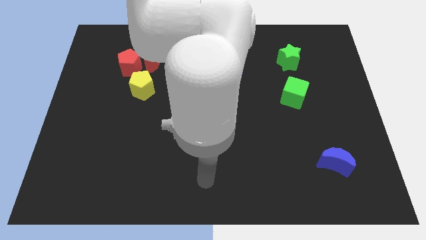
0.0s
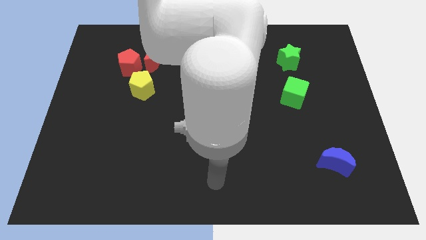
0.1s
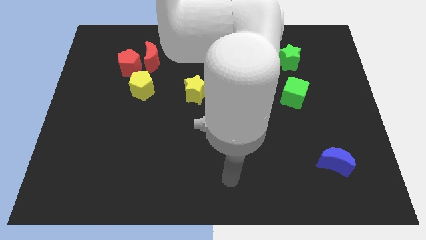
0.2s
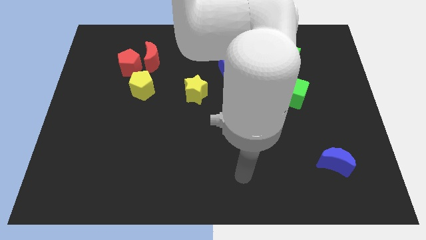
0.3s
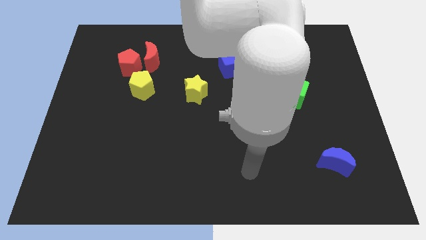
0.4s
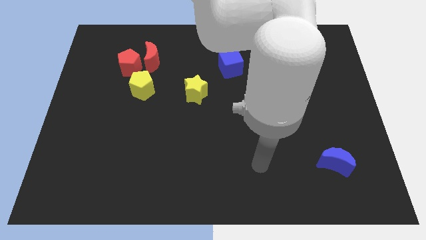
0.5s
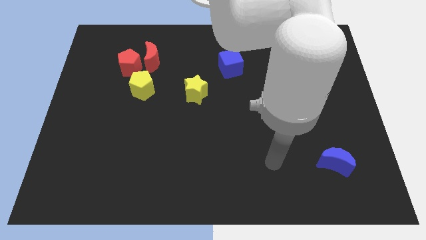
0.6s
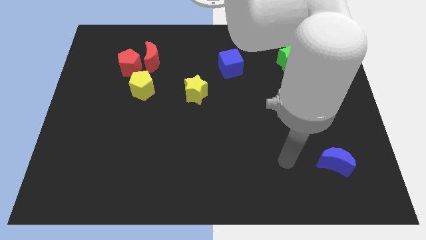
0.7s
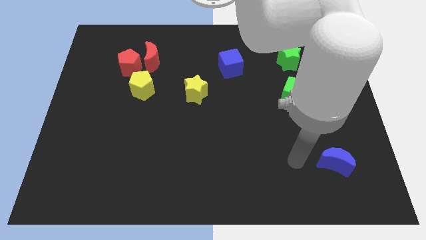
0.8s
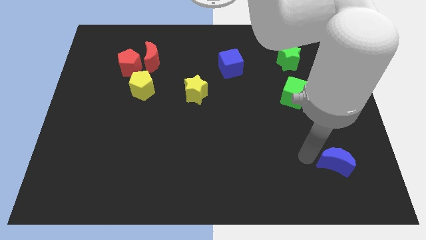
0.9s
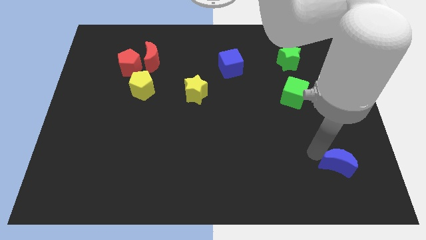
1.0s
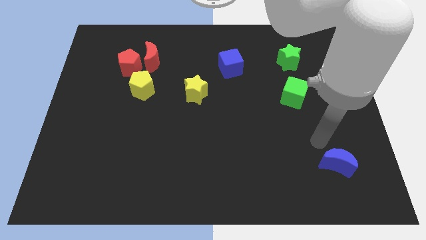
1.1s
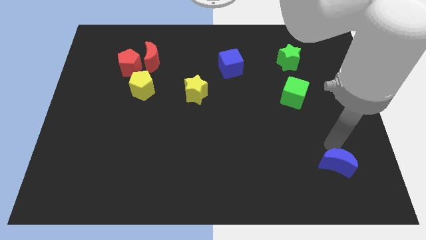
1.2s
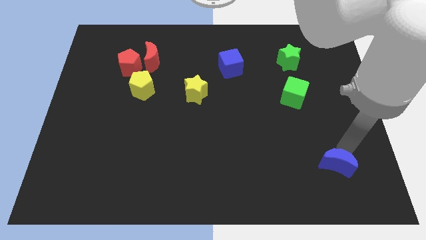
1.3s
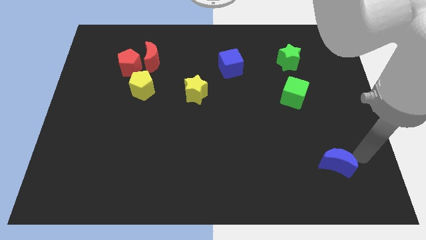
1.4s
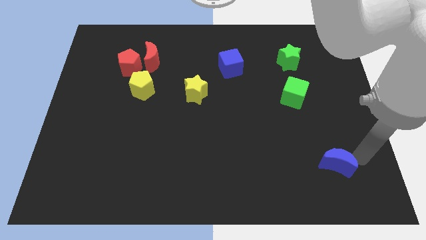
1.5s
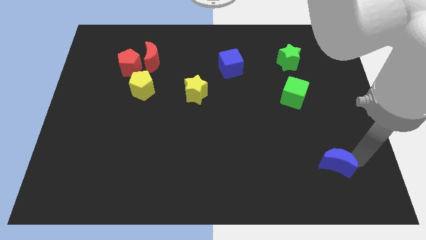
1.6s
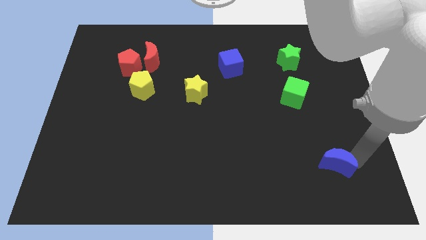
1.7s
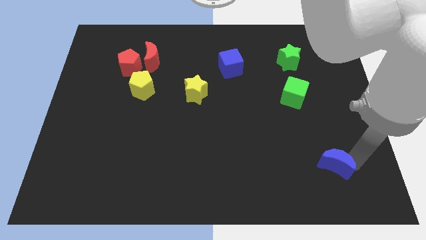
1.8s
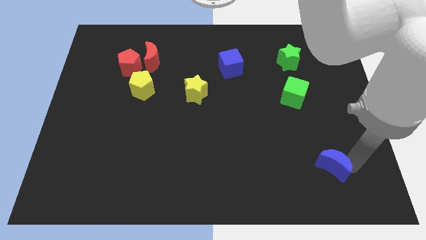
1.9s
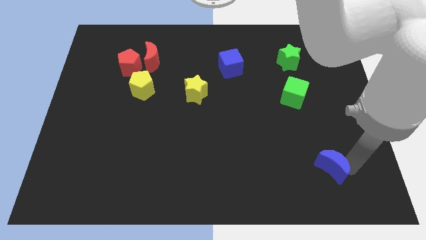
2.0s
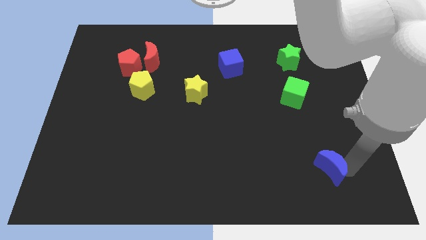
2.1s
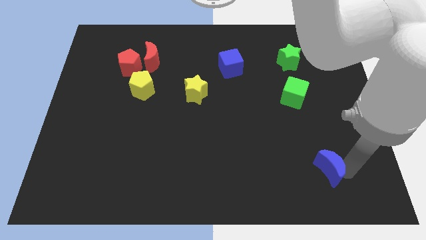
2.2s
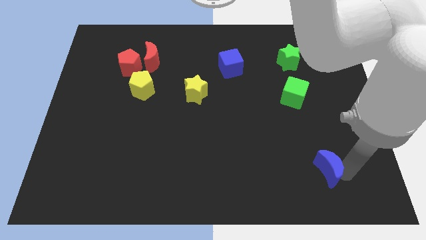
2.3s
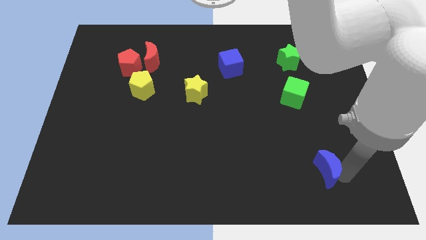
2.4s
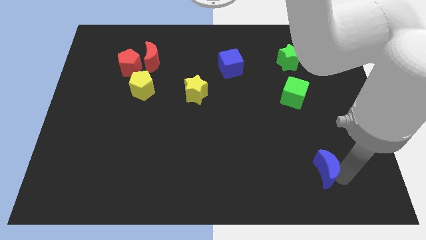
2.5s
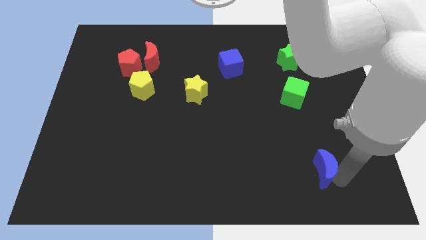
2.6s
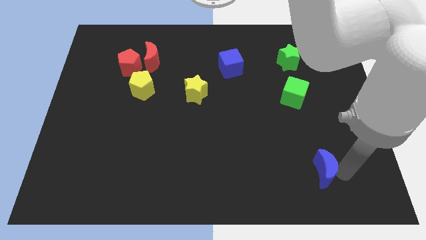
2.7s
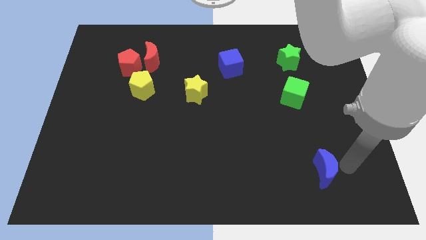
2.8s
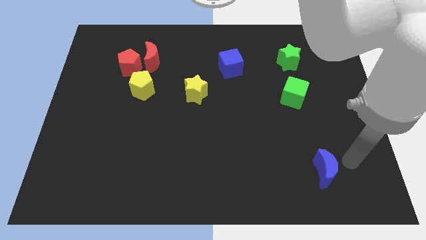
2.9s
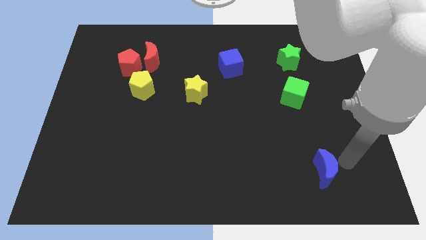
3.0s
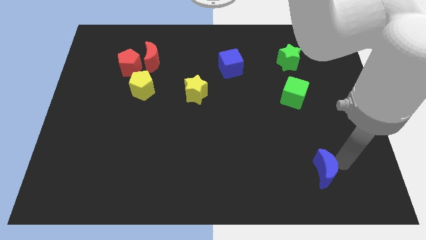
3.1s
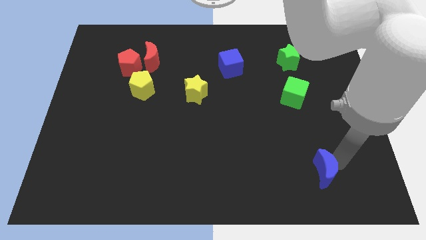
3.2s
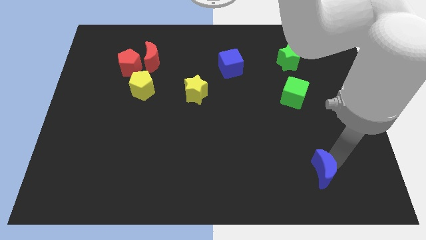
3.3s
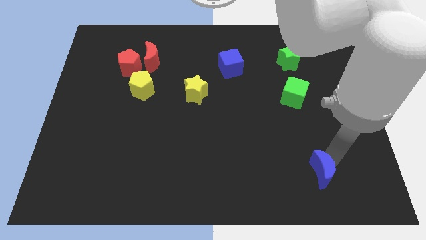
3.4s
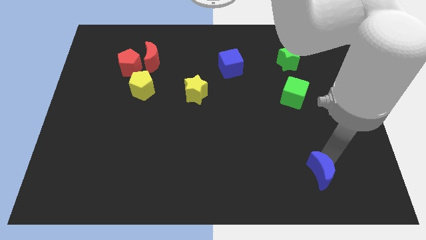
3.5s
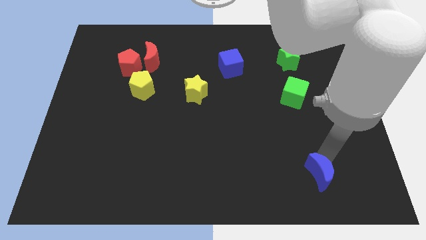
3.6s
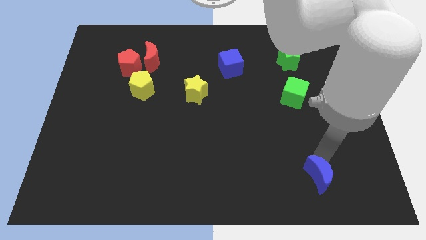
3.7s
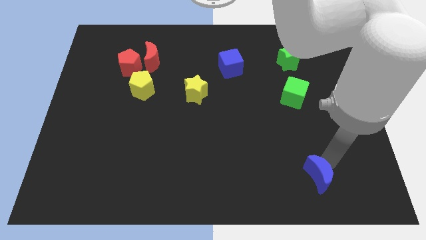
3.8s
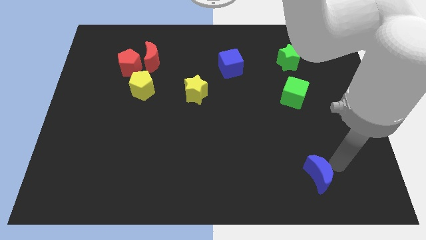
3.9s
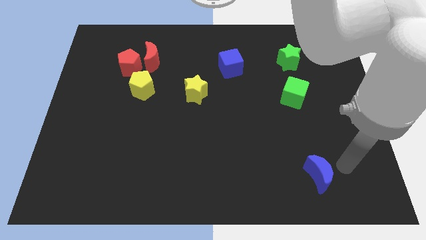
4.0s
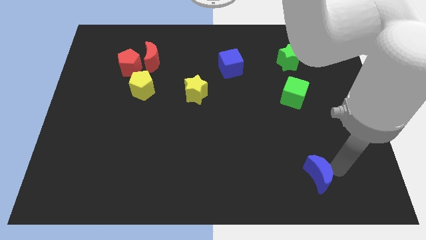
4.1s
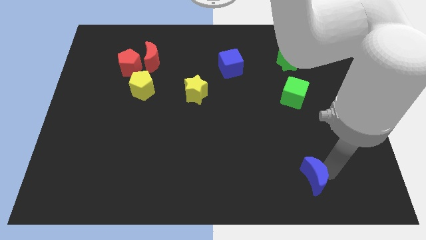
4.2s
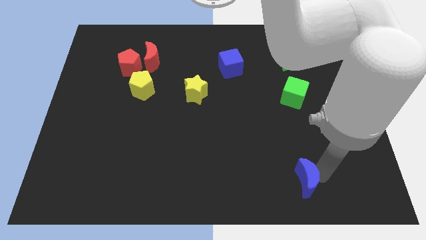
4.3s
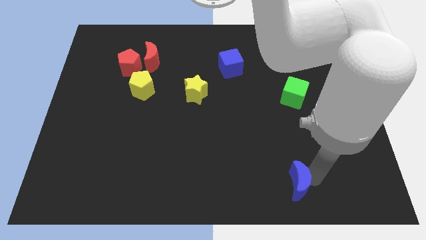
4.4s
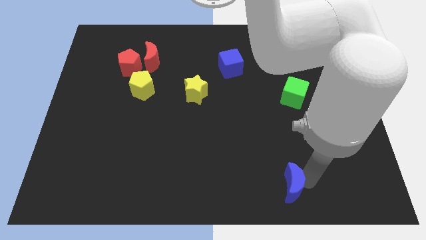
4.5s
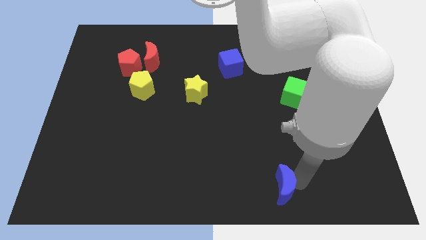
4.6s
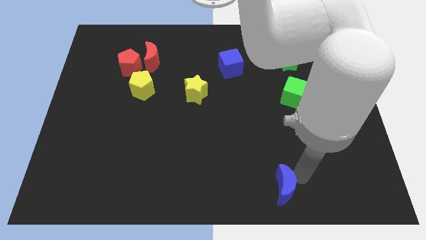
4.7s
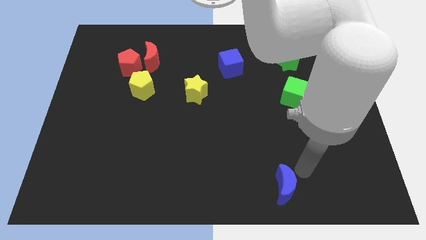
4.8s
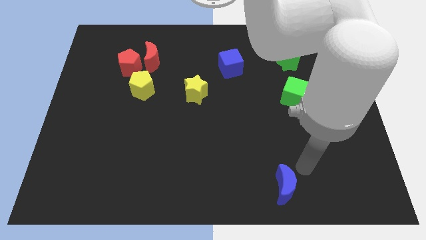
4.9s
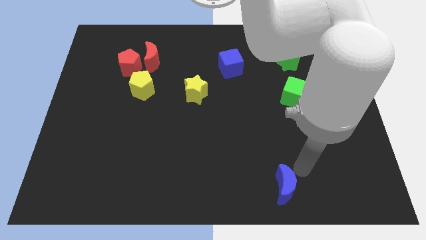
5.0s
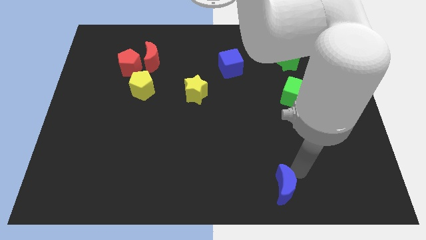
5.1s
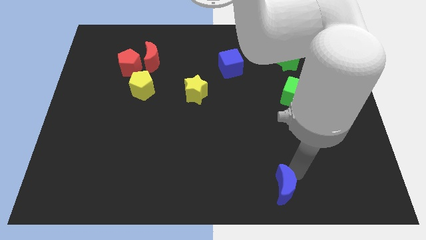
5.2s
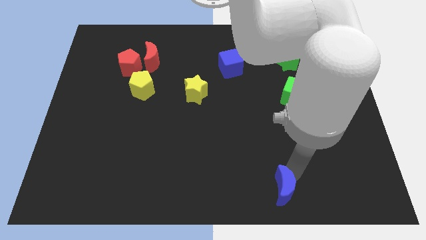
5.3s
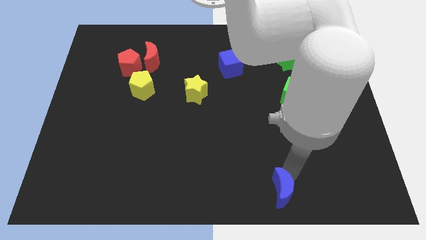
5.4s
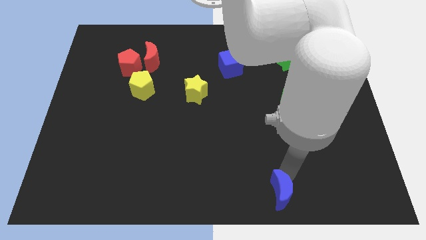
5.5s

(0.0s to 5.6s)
put the blue moon to the bottom side

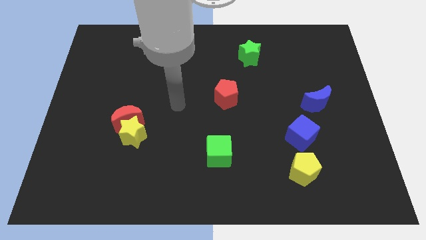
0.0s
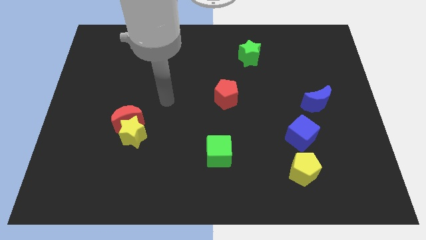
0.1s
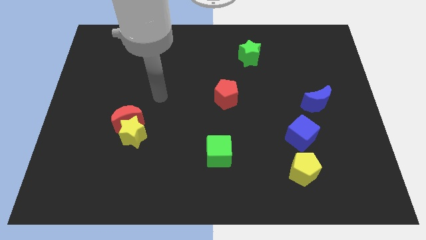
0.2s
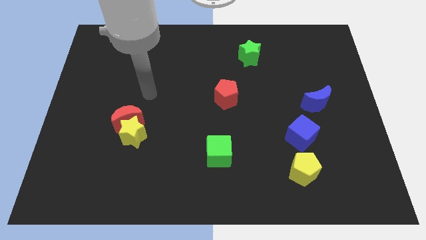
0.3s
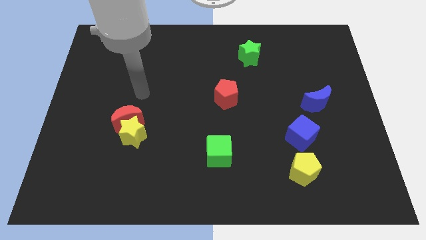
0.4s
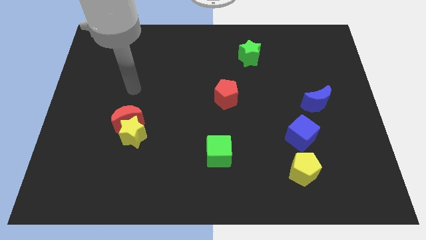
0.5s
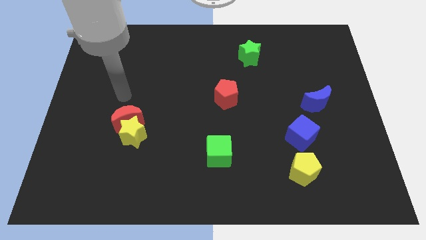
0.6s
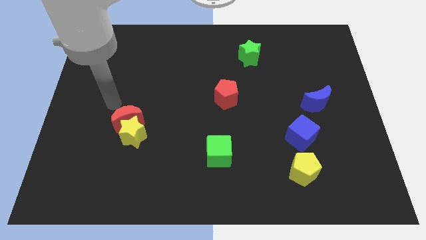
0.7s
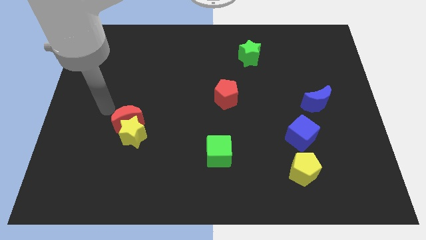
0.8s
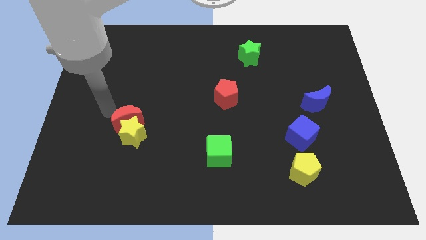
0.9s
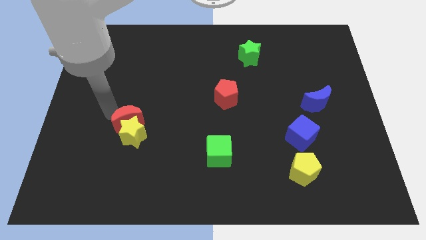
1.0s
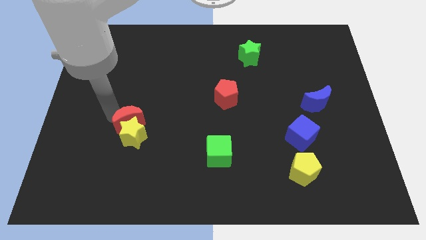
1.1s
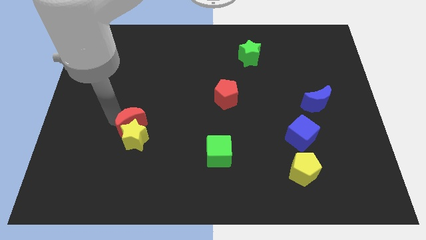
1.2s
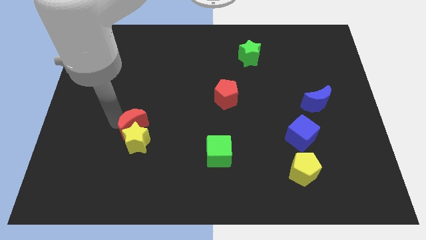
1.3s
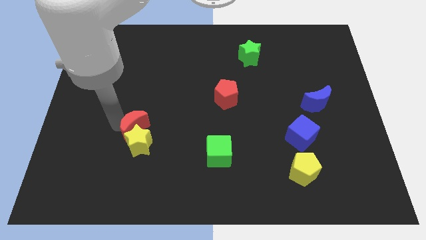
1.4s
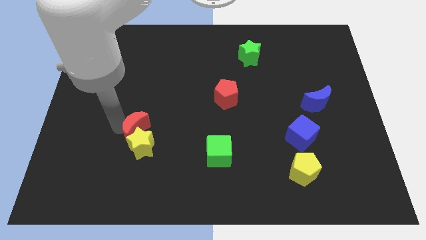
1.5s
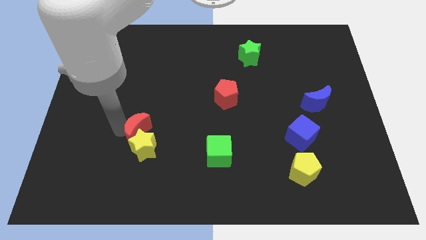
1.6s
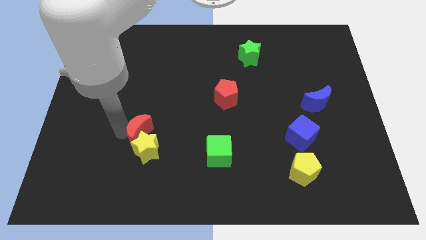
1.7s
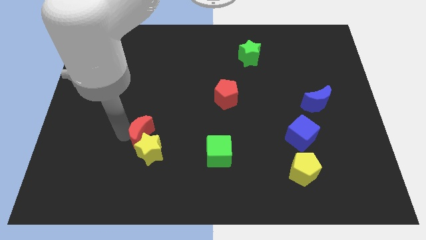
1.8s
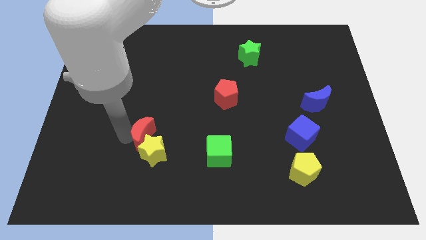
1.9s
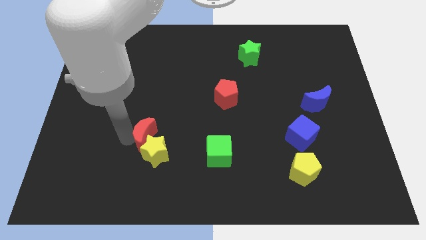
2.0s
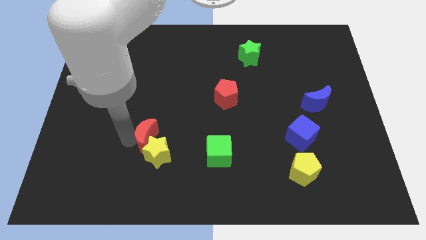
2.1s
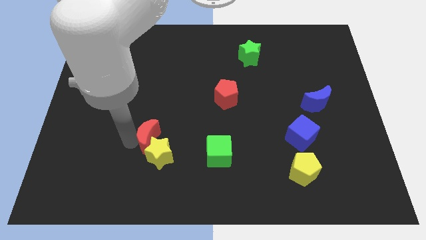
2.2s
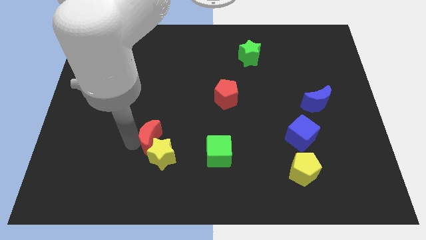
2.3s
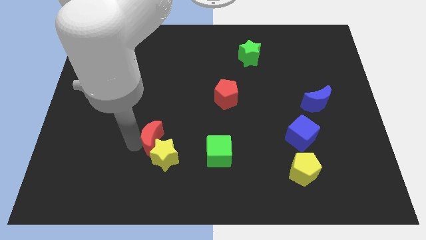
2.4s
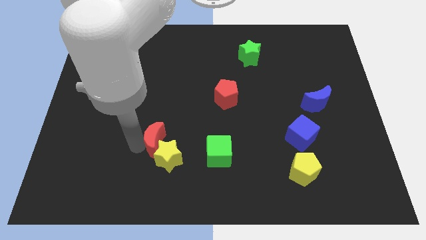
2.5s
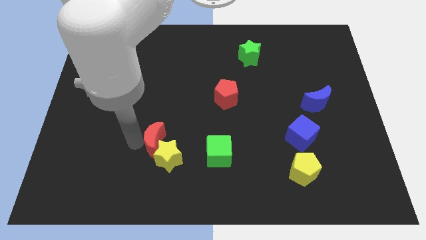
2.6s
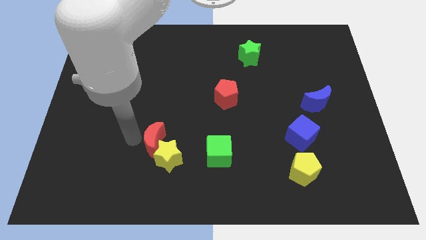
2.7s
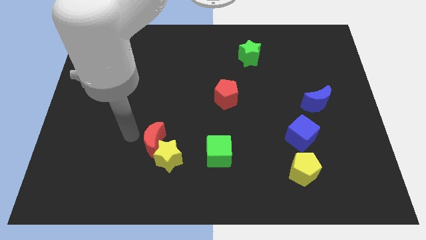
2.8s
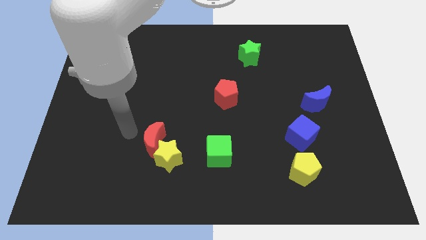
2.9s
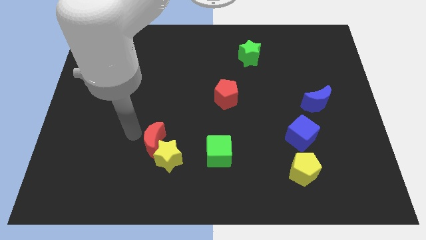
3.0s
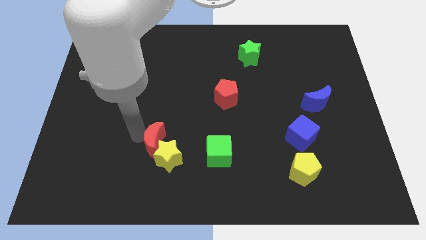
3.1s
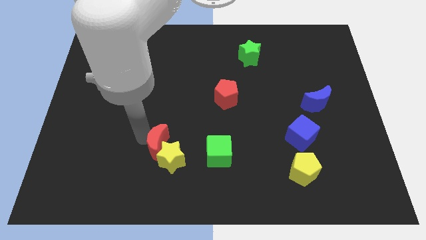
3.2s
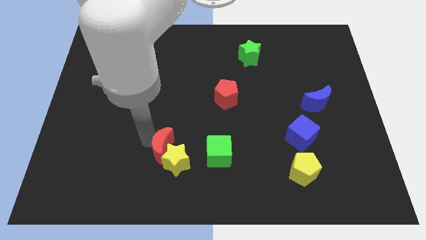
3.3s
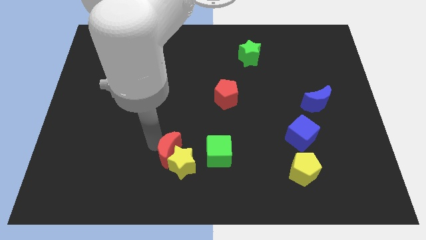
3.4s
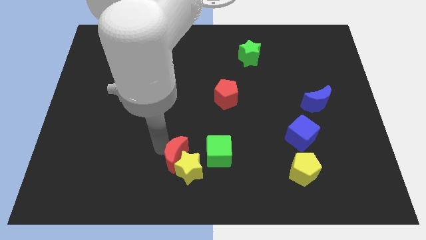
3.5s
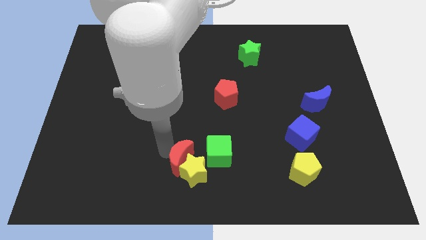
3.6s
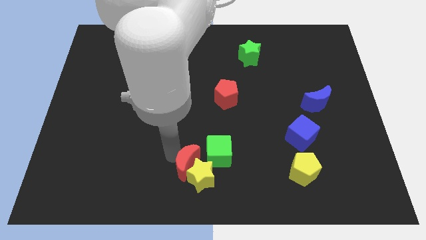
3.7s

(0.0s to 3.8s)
slide the red moon to the bottom
